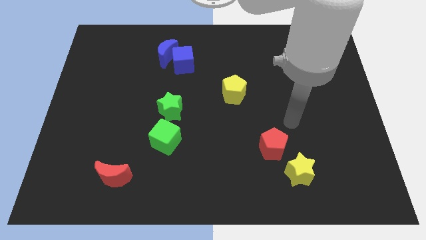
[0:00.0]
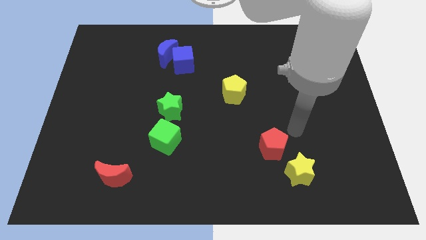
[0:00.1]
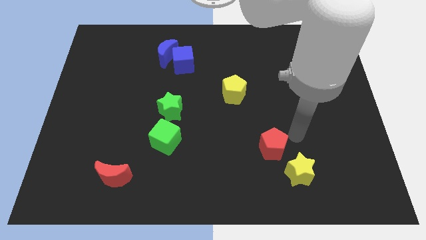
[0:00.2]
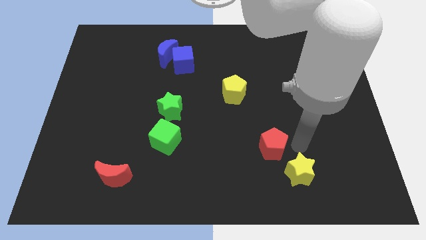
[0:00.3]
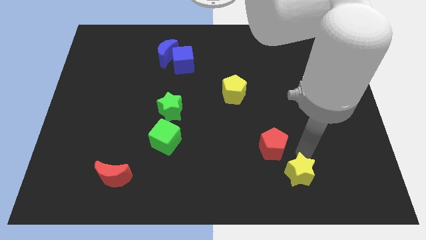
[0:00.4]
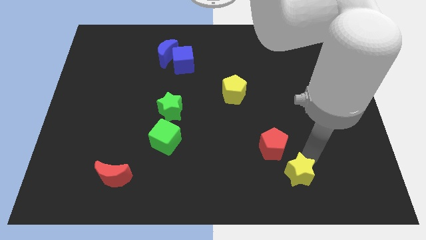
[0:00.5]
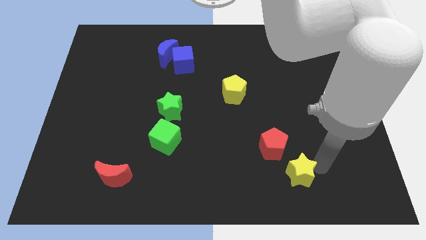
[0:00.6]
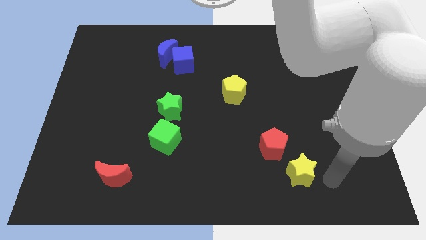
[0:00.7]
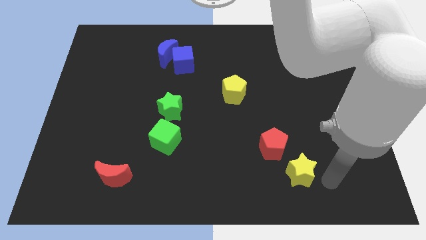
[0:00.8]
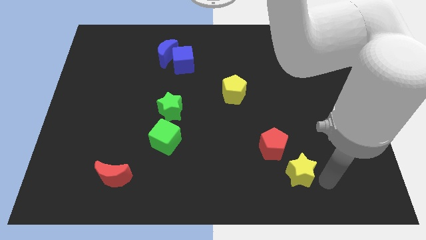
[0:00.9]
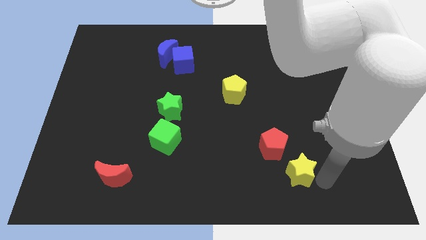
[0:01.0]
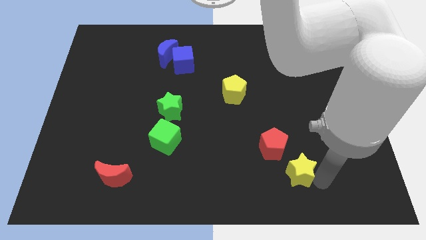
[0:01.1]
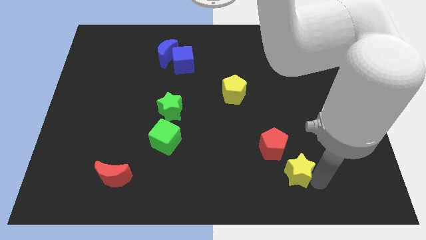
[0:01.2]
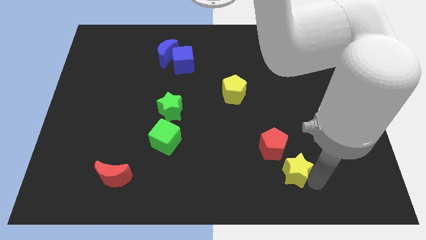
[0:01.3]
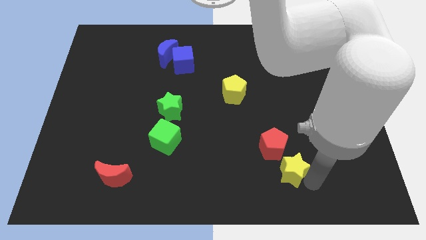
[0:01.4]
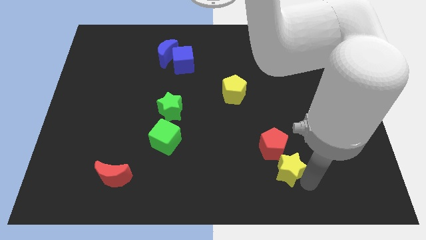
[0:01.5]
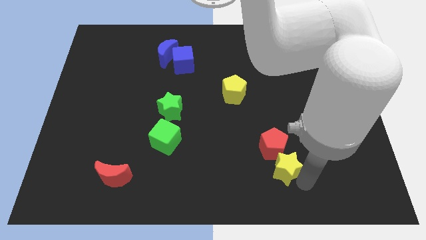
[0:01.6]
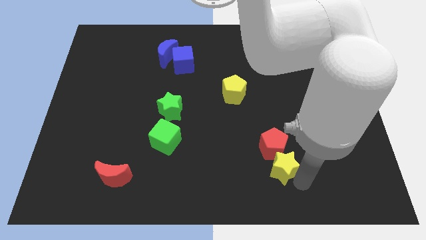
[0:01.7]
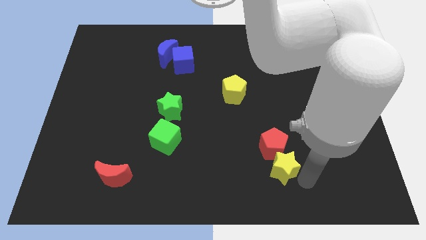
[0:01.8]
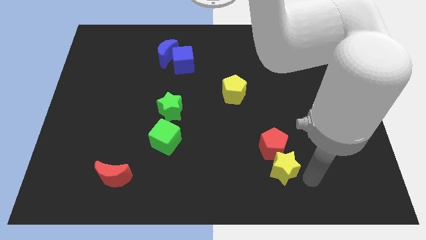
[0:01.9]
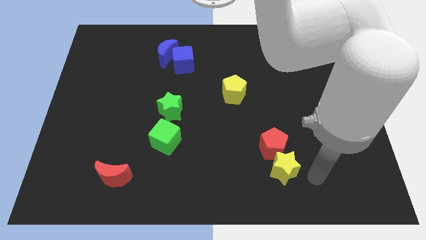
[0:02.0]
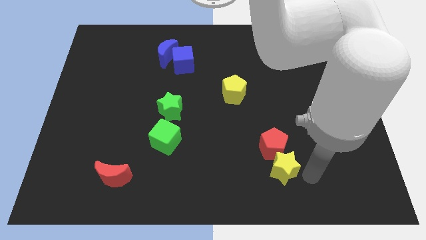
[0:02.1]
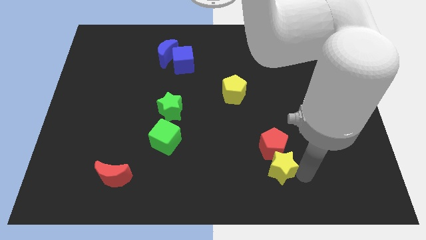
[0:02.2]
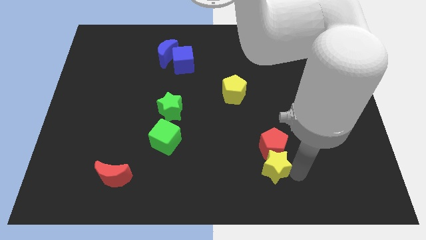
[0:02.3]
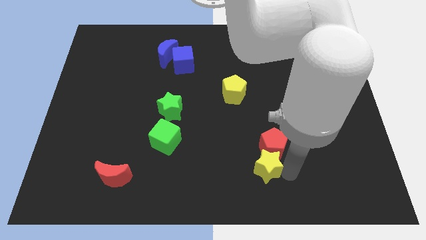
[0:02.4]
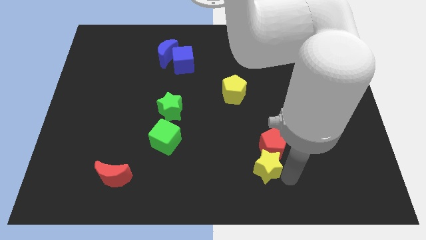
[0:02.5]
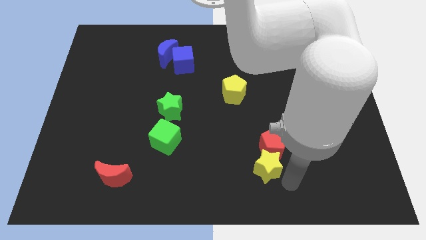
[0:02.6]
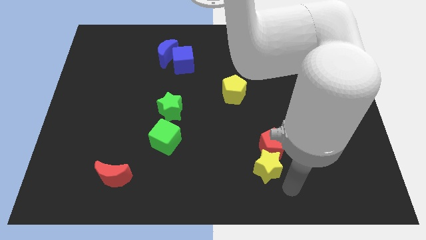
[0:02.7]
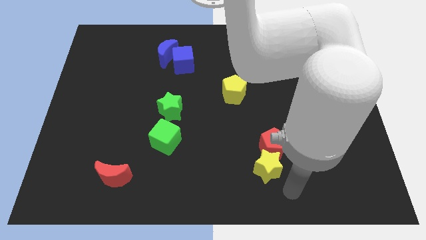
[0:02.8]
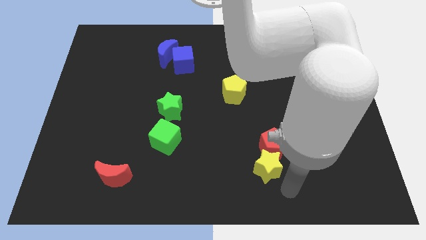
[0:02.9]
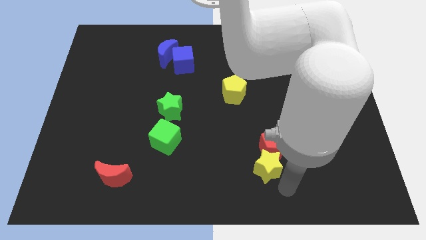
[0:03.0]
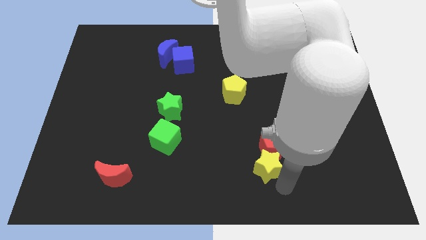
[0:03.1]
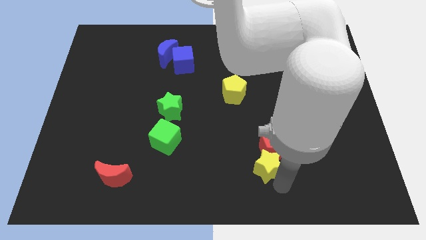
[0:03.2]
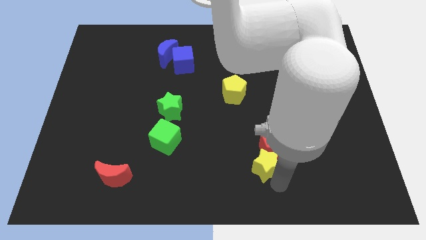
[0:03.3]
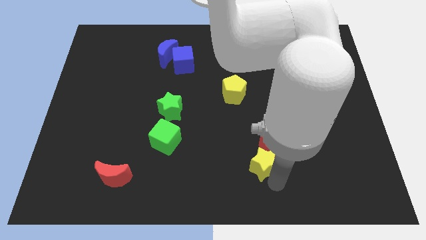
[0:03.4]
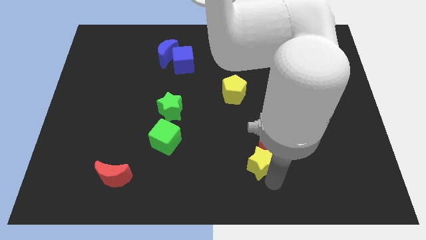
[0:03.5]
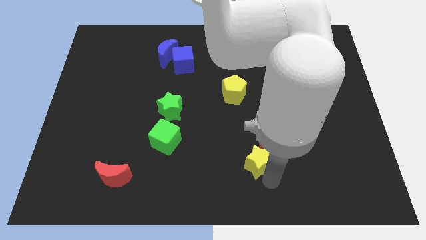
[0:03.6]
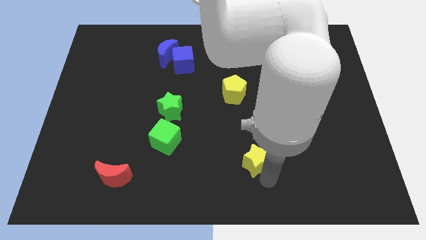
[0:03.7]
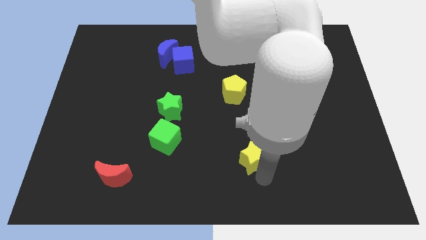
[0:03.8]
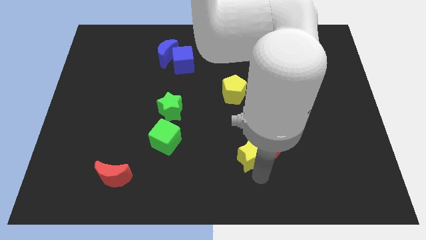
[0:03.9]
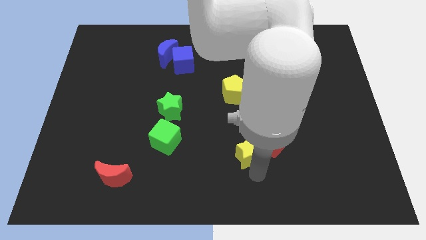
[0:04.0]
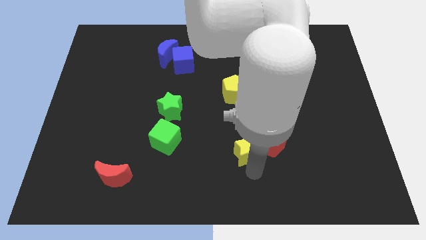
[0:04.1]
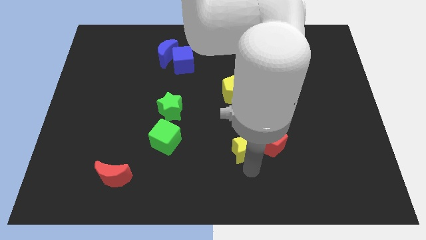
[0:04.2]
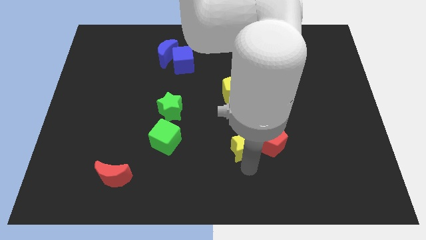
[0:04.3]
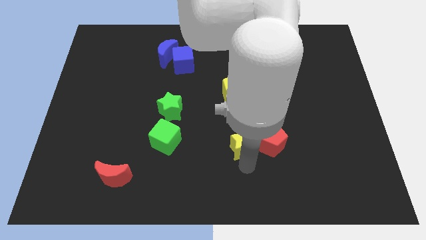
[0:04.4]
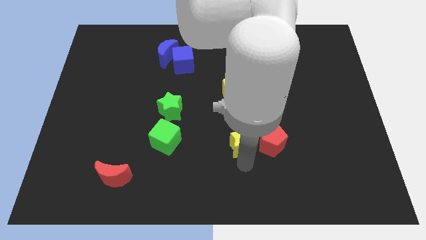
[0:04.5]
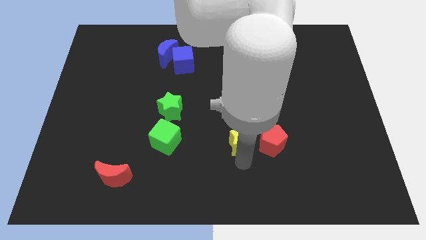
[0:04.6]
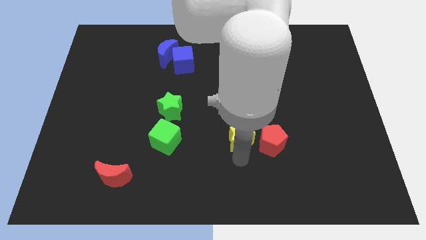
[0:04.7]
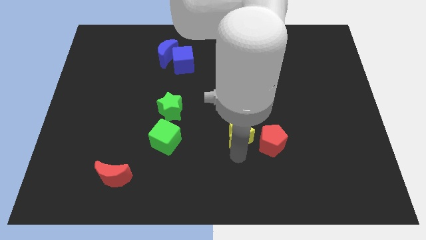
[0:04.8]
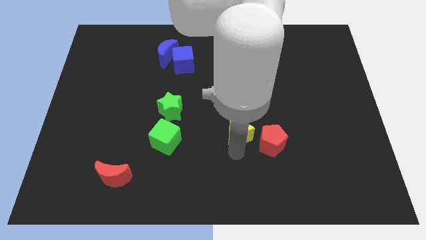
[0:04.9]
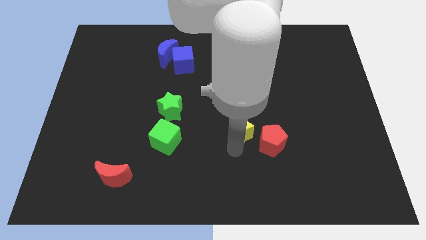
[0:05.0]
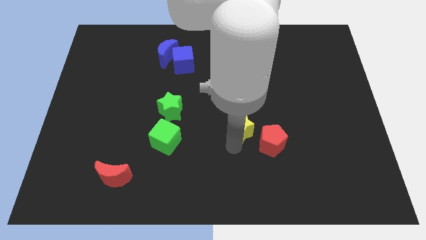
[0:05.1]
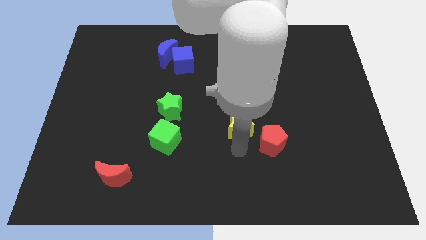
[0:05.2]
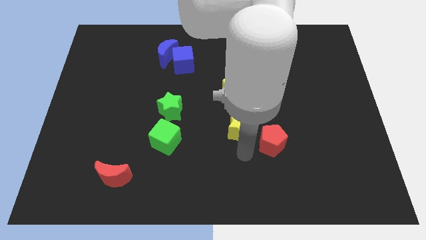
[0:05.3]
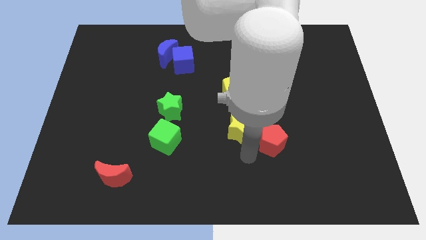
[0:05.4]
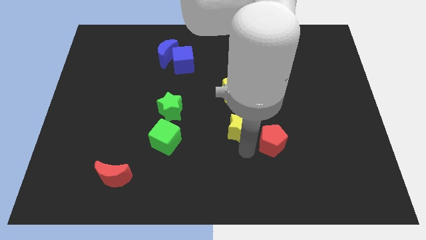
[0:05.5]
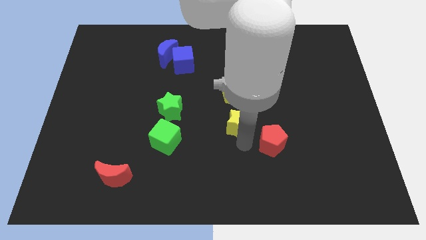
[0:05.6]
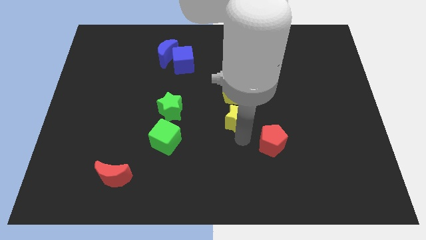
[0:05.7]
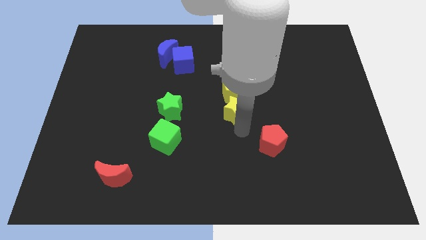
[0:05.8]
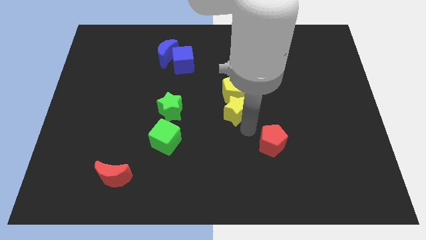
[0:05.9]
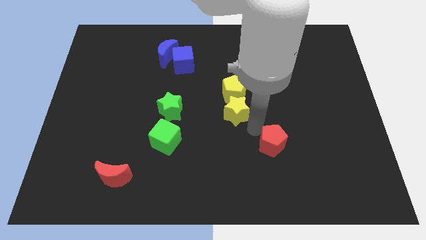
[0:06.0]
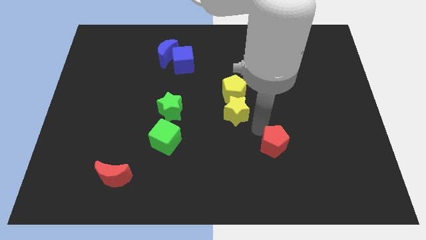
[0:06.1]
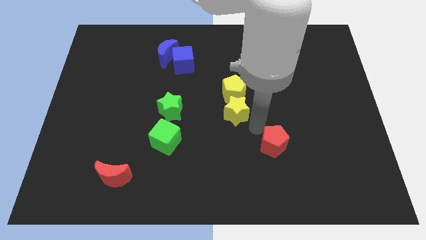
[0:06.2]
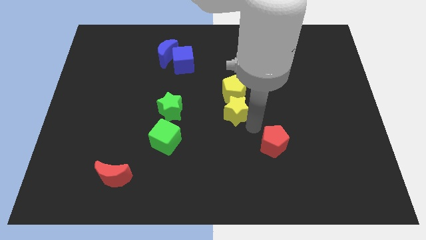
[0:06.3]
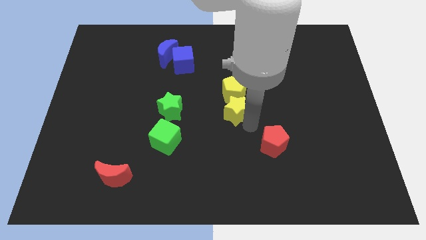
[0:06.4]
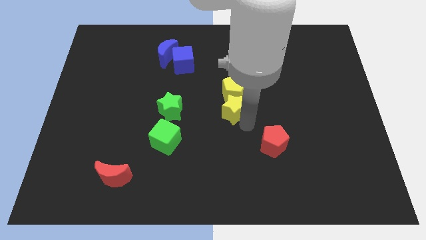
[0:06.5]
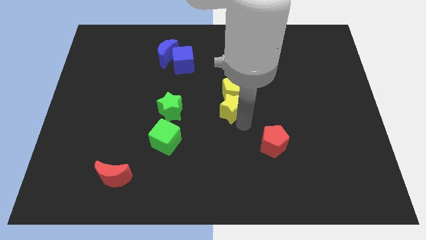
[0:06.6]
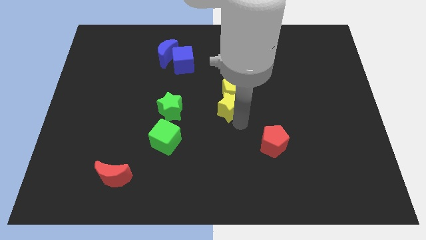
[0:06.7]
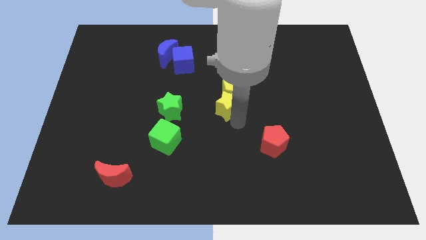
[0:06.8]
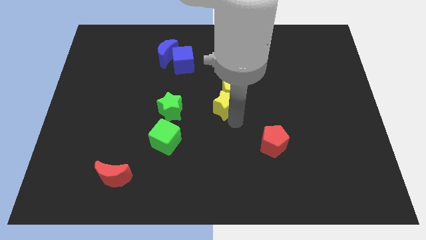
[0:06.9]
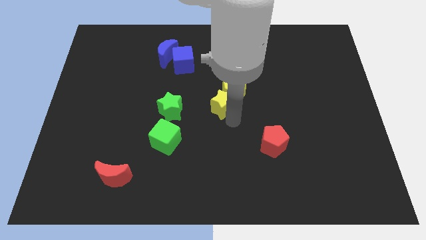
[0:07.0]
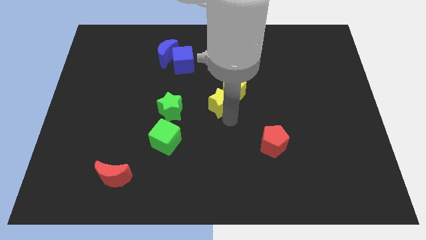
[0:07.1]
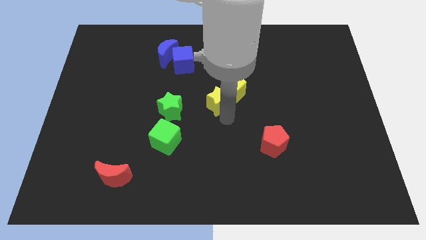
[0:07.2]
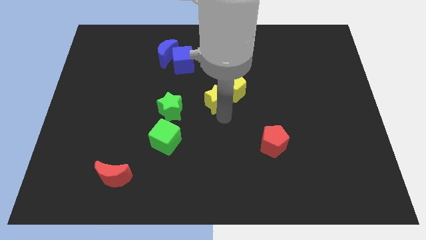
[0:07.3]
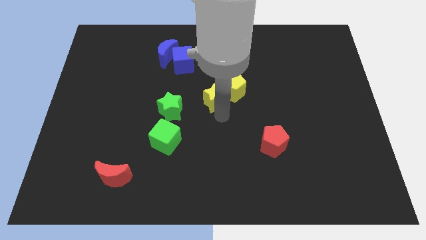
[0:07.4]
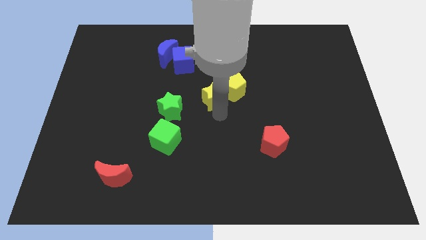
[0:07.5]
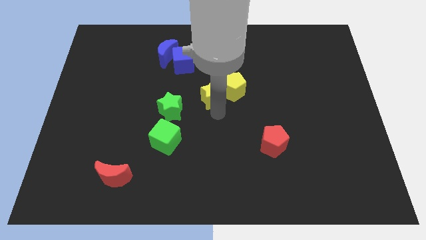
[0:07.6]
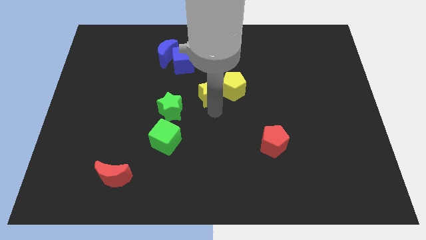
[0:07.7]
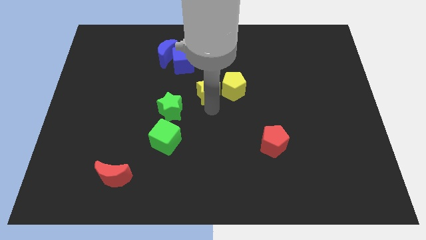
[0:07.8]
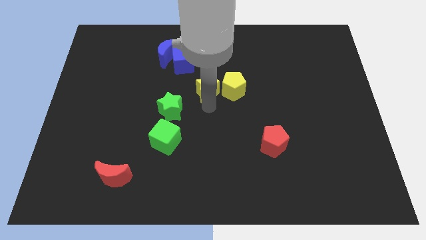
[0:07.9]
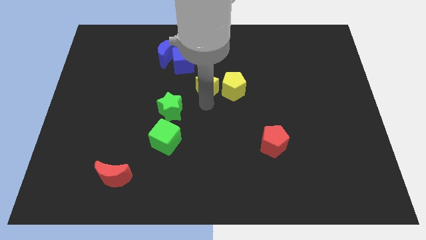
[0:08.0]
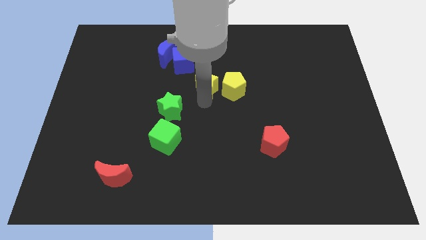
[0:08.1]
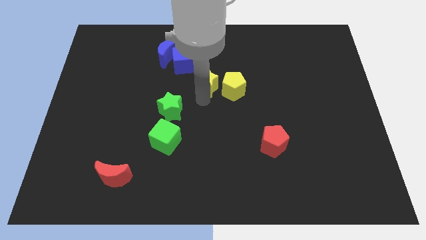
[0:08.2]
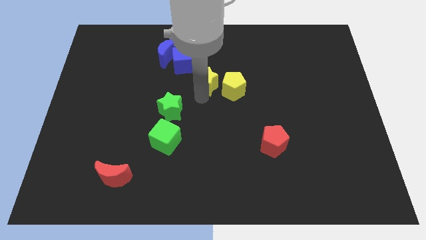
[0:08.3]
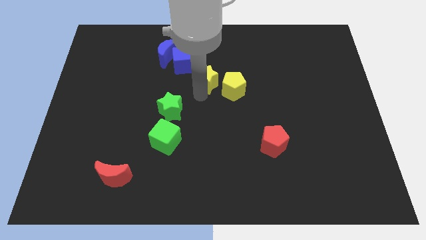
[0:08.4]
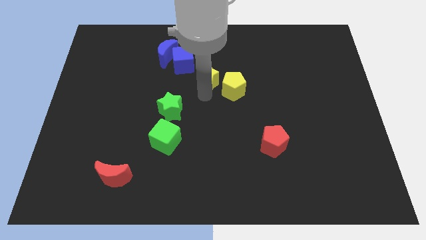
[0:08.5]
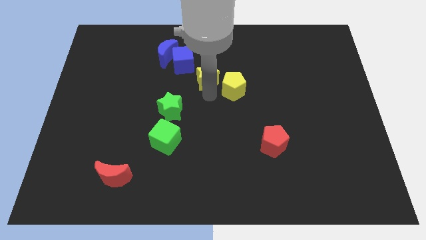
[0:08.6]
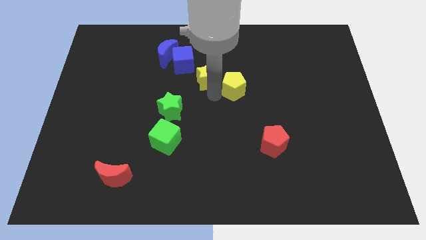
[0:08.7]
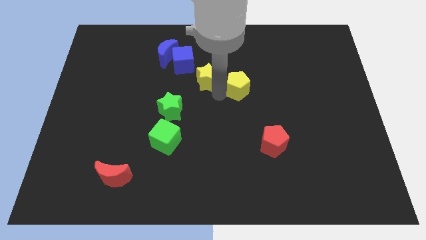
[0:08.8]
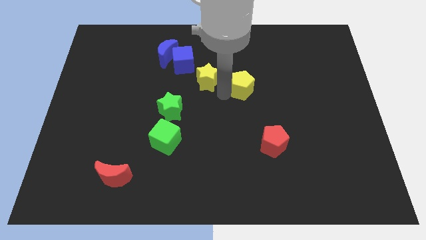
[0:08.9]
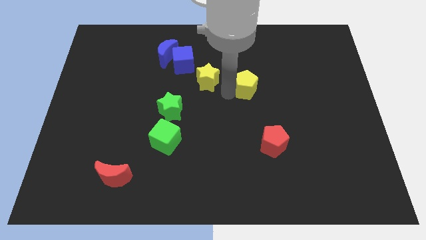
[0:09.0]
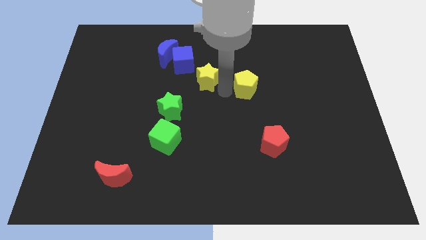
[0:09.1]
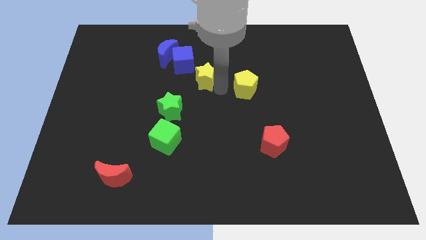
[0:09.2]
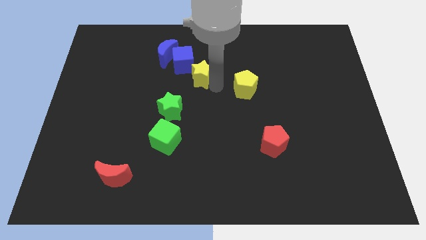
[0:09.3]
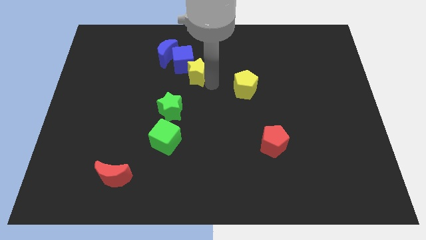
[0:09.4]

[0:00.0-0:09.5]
push the yellow star towards the blue cube
